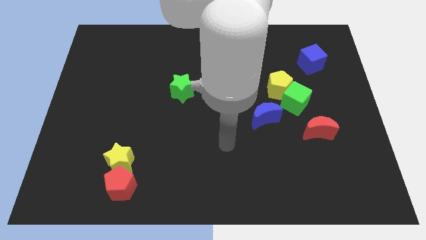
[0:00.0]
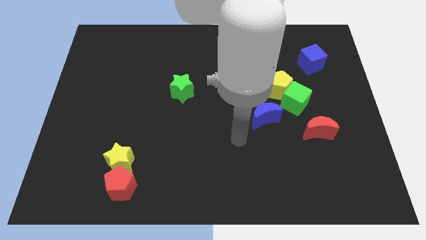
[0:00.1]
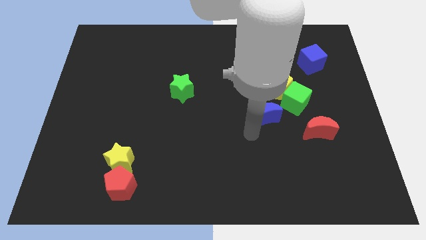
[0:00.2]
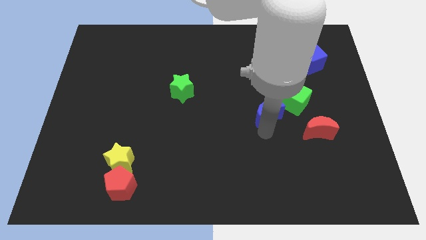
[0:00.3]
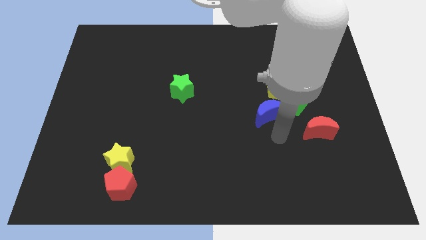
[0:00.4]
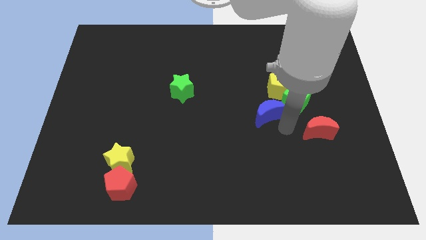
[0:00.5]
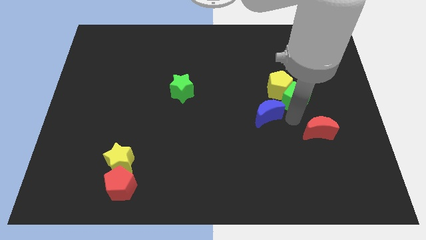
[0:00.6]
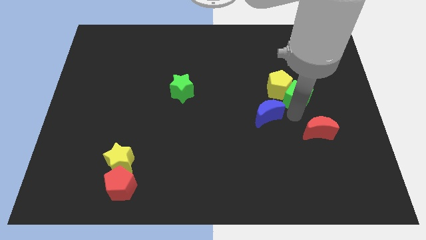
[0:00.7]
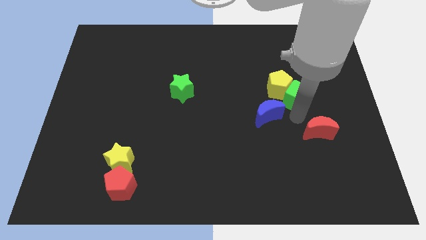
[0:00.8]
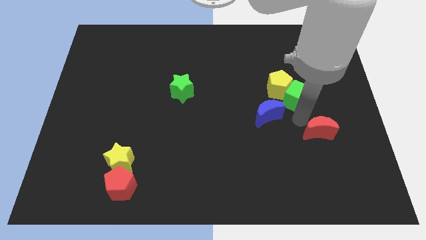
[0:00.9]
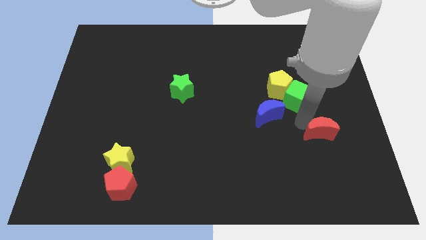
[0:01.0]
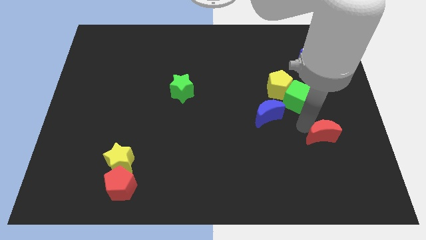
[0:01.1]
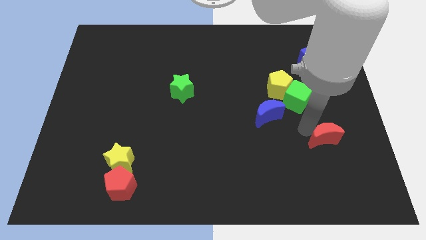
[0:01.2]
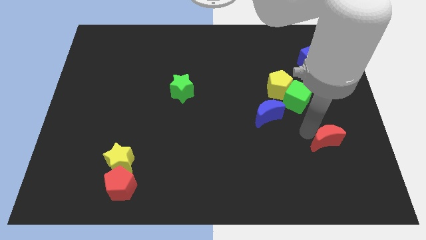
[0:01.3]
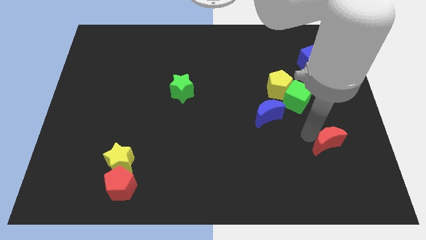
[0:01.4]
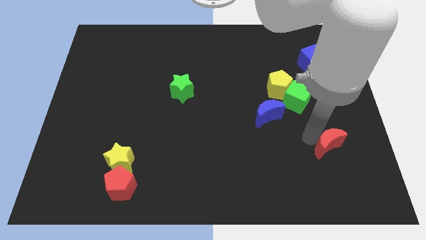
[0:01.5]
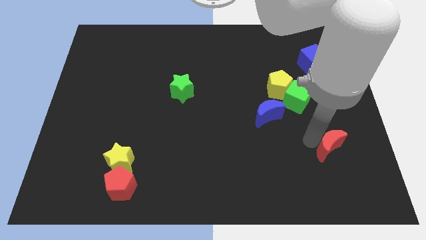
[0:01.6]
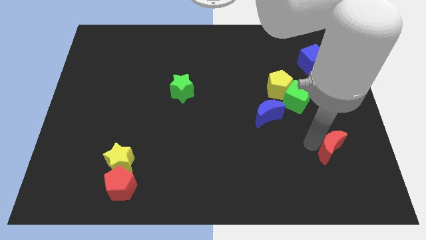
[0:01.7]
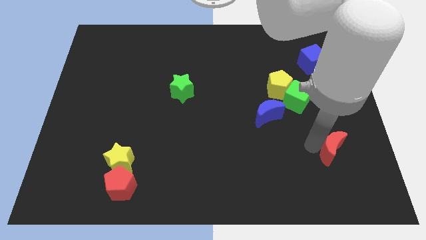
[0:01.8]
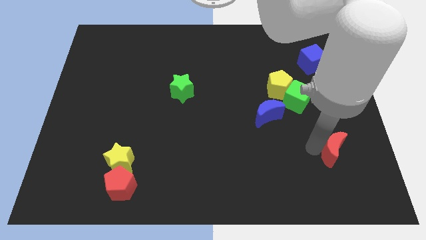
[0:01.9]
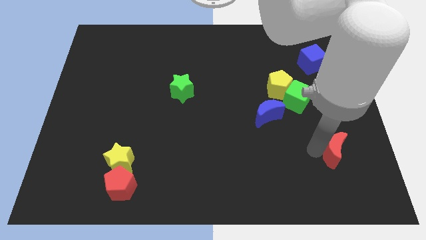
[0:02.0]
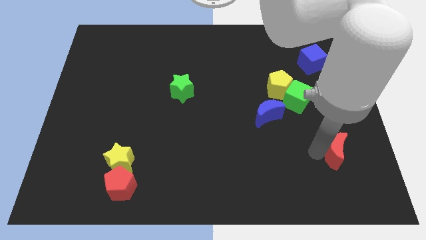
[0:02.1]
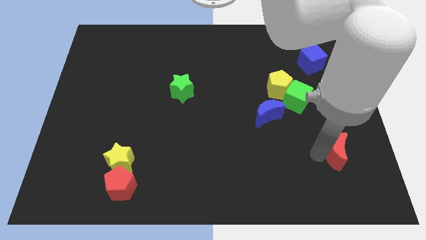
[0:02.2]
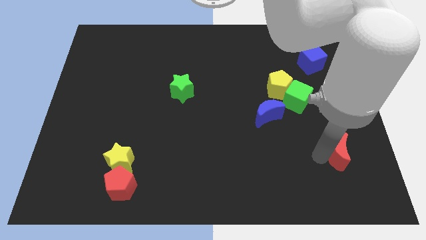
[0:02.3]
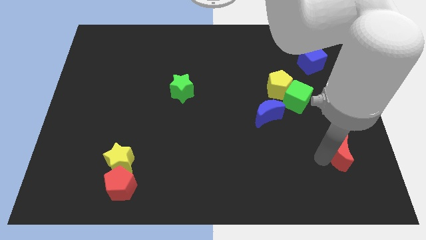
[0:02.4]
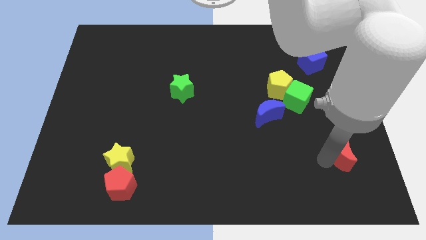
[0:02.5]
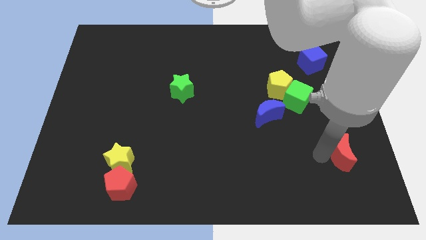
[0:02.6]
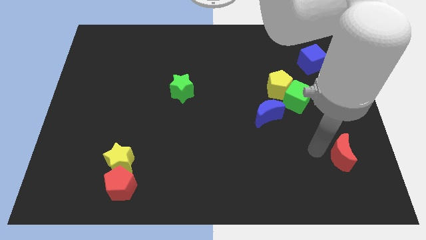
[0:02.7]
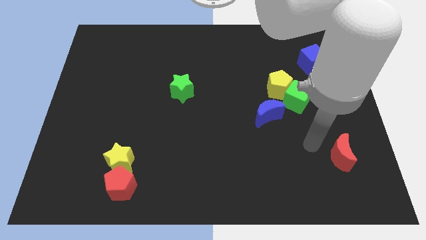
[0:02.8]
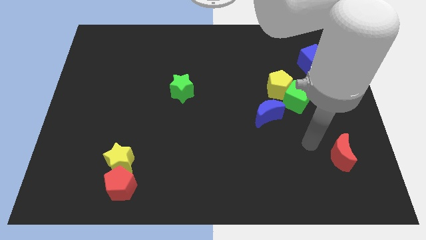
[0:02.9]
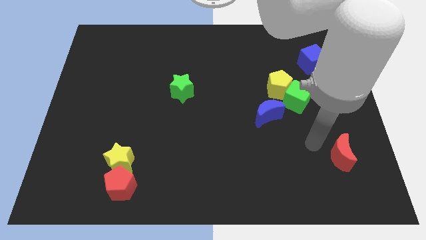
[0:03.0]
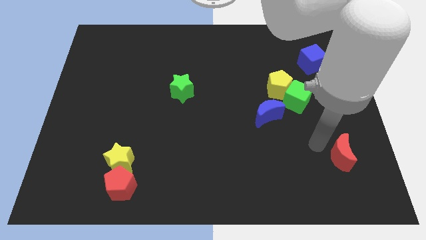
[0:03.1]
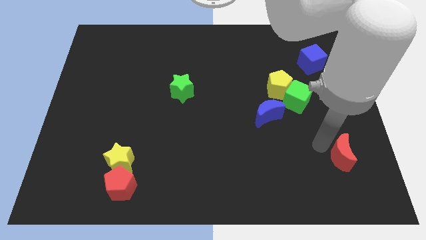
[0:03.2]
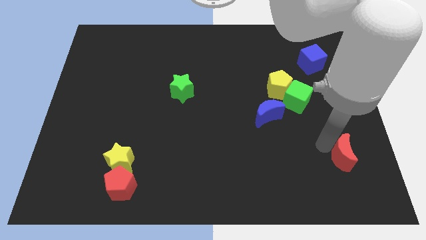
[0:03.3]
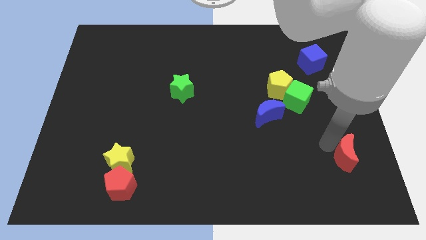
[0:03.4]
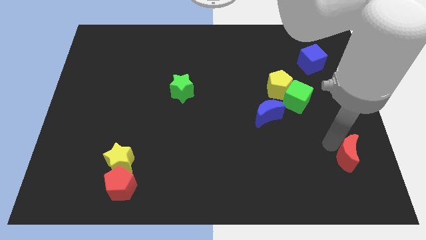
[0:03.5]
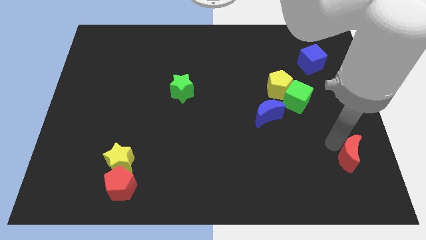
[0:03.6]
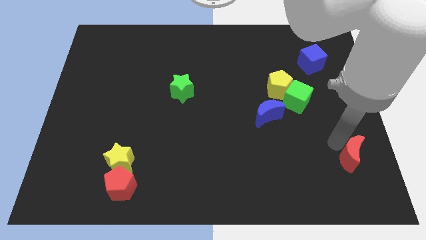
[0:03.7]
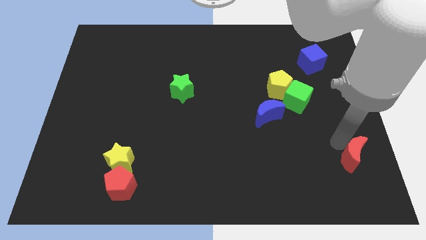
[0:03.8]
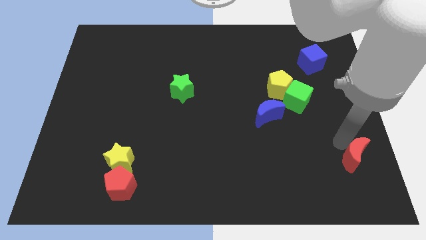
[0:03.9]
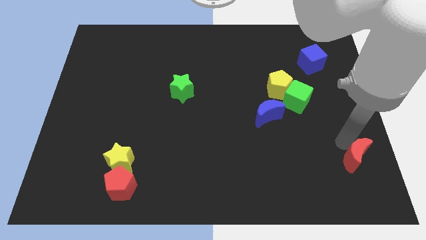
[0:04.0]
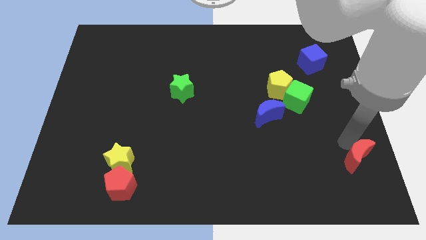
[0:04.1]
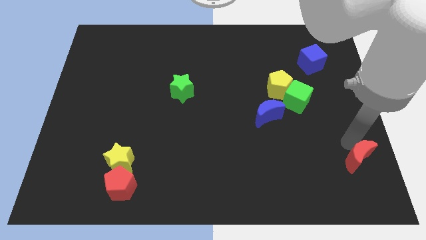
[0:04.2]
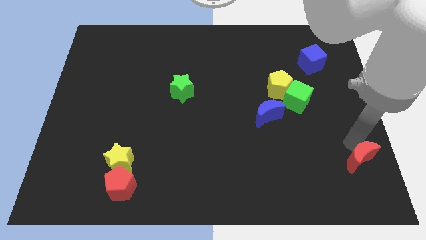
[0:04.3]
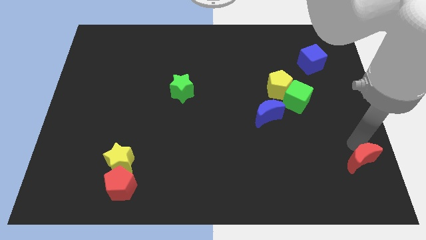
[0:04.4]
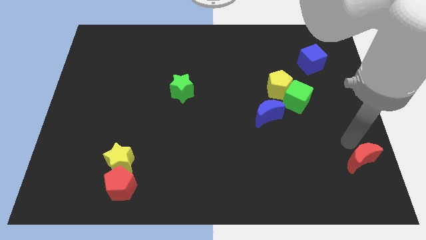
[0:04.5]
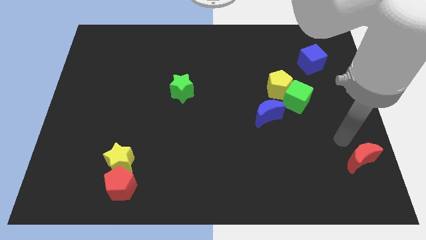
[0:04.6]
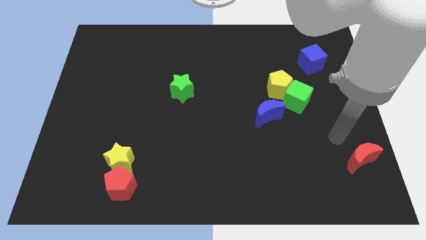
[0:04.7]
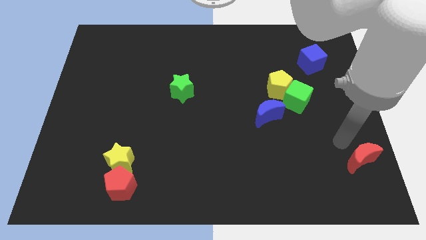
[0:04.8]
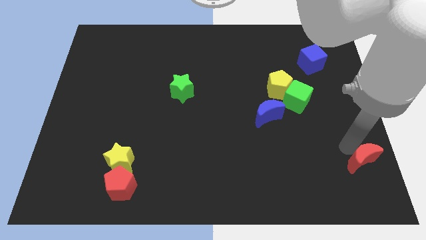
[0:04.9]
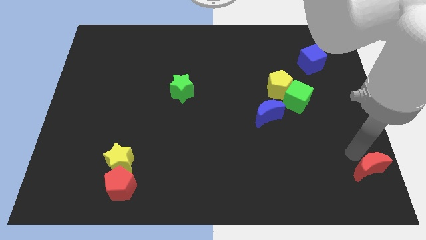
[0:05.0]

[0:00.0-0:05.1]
slide the red moon to the lower right corner

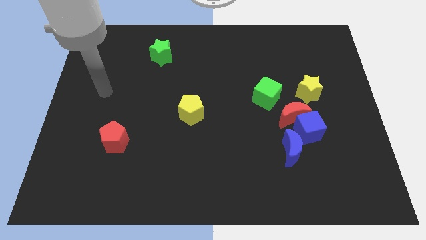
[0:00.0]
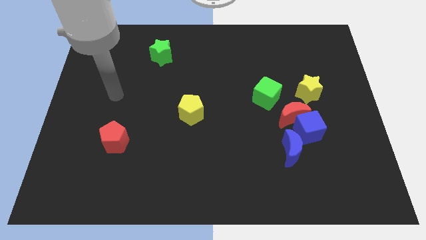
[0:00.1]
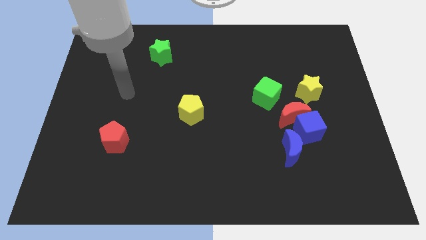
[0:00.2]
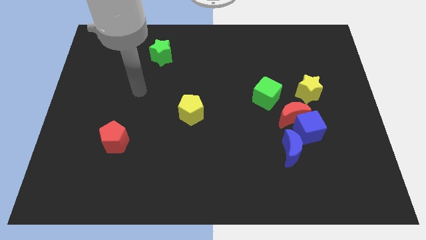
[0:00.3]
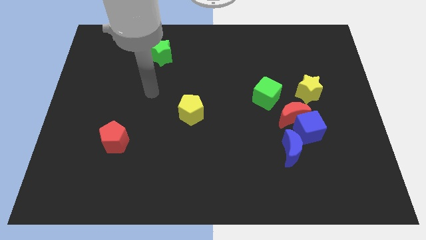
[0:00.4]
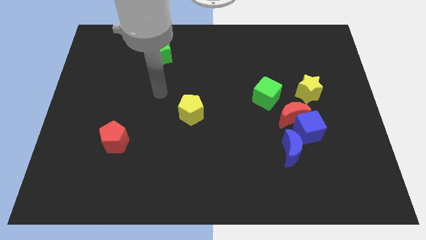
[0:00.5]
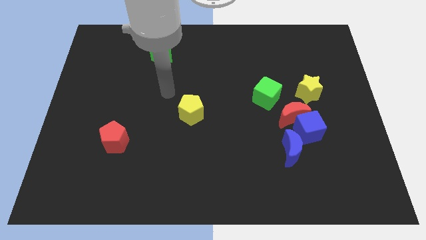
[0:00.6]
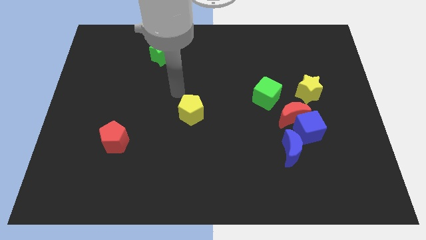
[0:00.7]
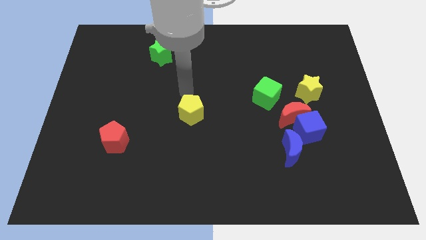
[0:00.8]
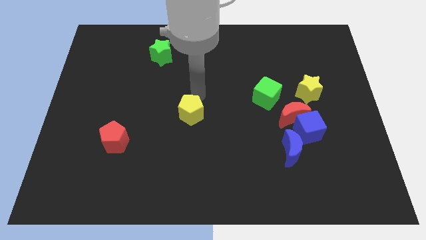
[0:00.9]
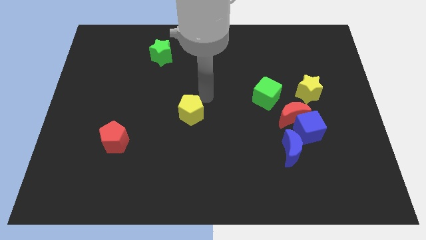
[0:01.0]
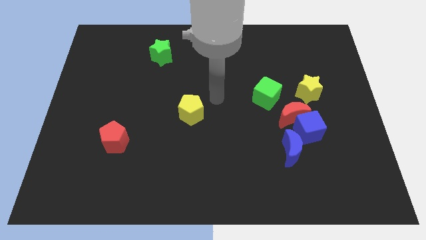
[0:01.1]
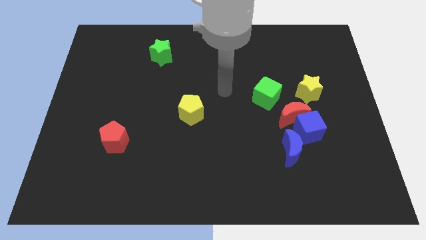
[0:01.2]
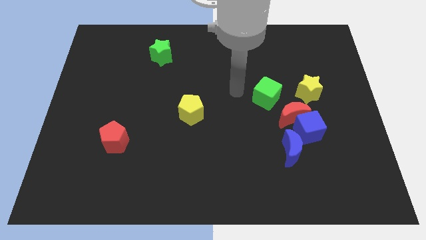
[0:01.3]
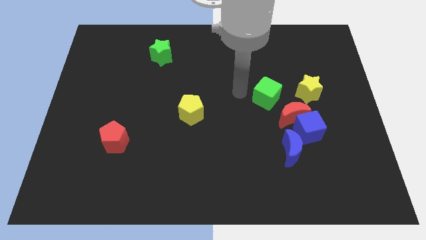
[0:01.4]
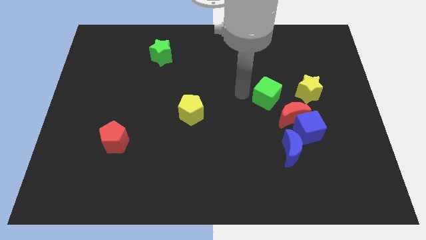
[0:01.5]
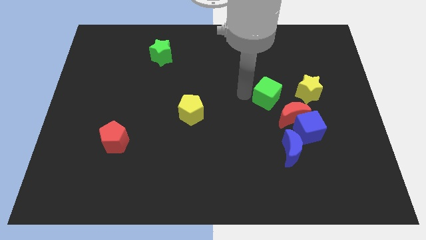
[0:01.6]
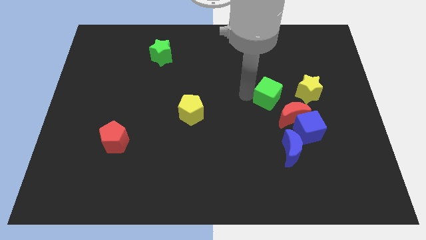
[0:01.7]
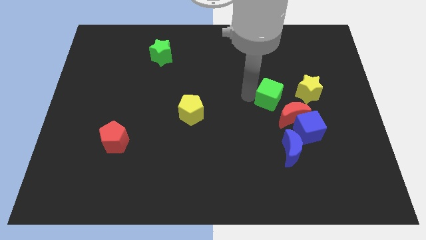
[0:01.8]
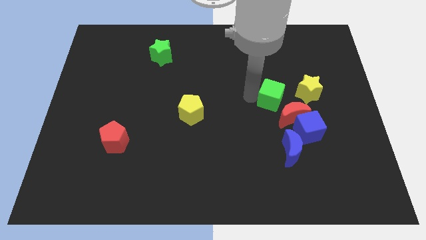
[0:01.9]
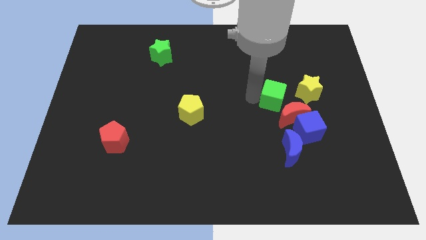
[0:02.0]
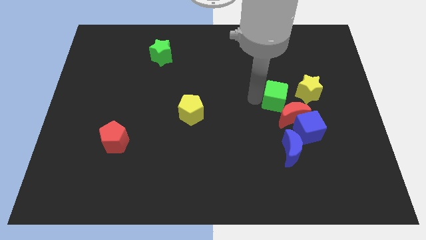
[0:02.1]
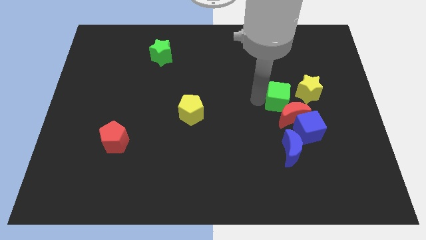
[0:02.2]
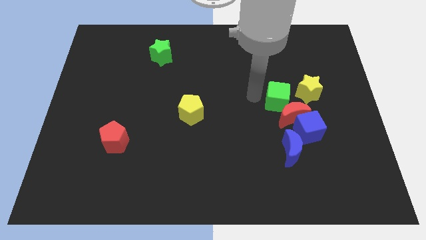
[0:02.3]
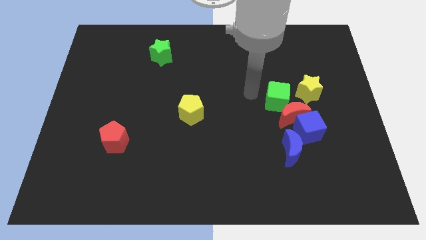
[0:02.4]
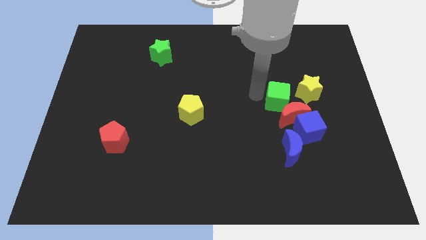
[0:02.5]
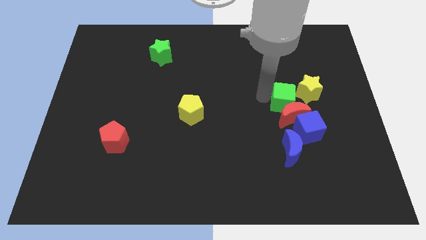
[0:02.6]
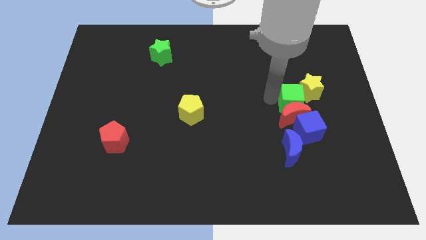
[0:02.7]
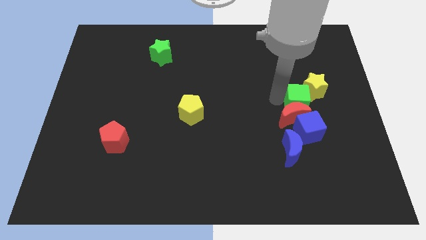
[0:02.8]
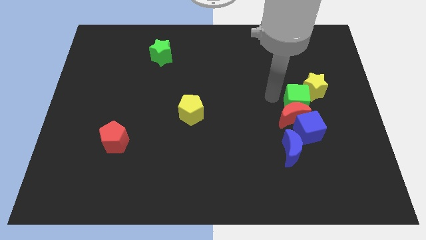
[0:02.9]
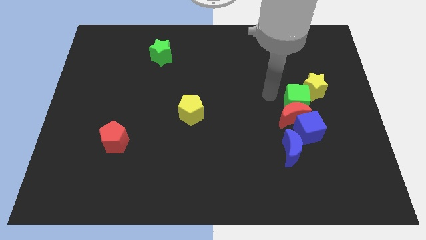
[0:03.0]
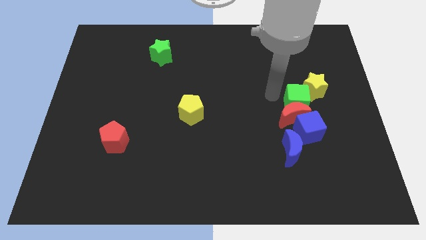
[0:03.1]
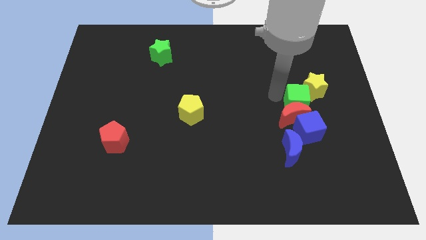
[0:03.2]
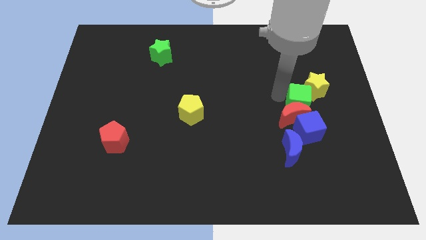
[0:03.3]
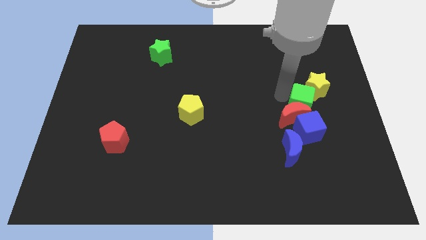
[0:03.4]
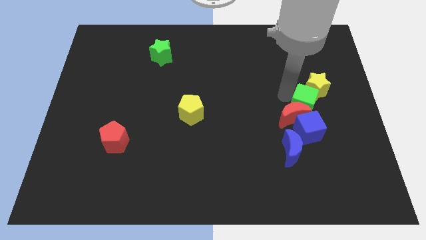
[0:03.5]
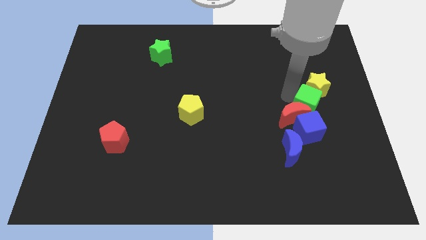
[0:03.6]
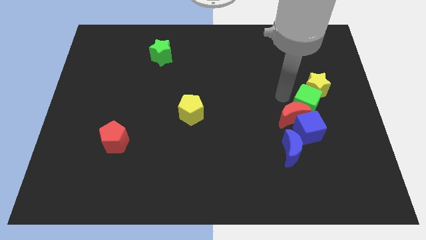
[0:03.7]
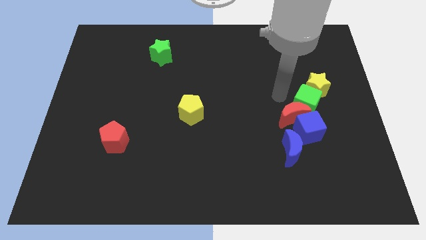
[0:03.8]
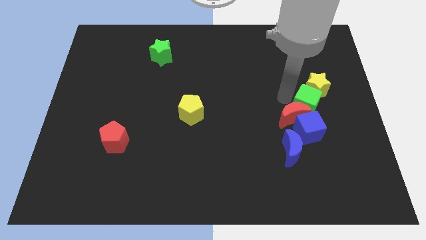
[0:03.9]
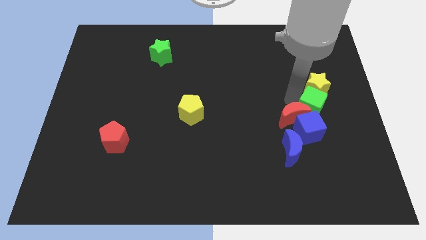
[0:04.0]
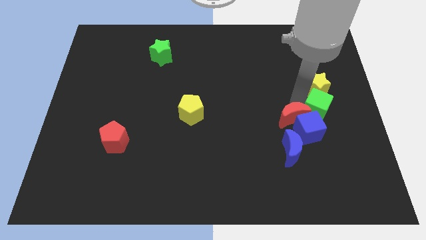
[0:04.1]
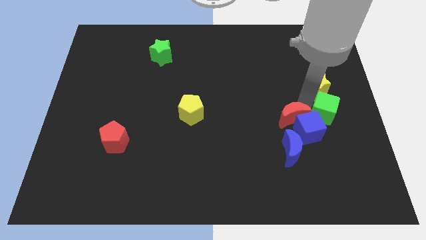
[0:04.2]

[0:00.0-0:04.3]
push the green cube to the center right
